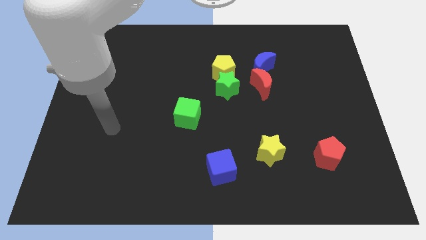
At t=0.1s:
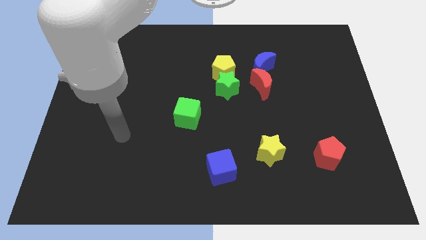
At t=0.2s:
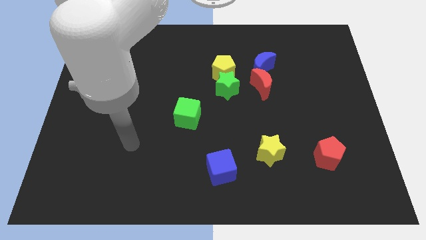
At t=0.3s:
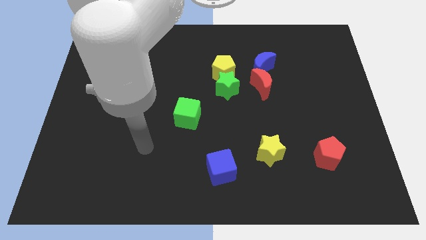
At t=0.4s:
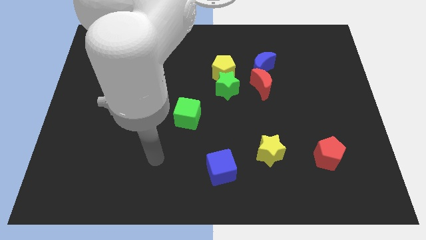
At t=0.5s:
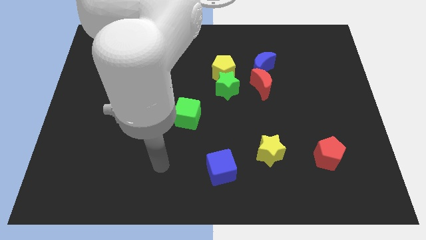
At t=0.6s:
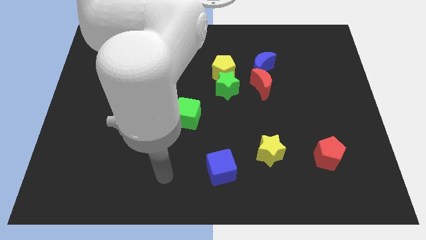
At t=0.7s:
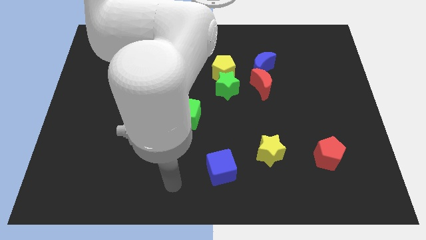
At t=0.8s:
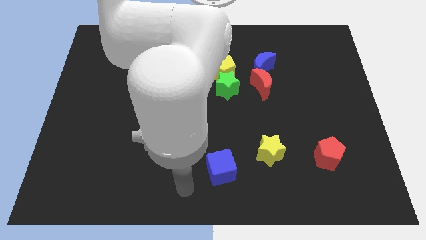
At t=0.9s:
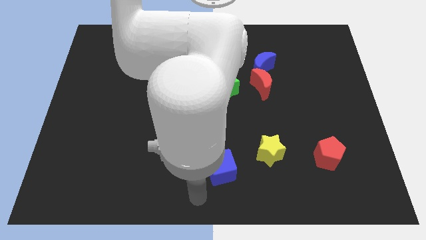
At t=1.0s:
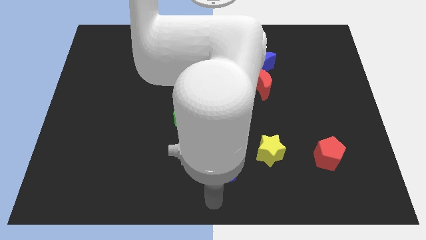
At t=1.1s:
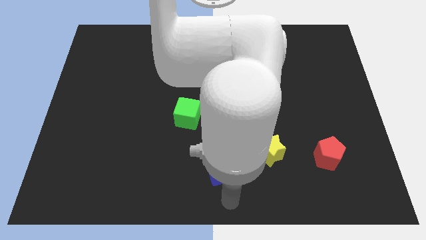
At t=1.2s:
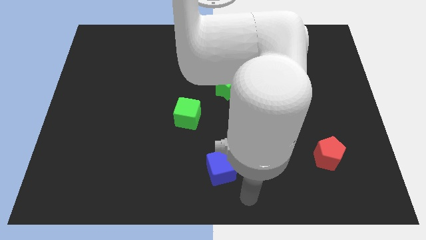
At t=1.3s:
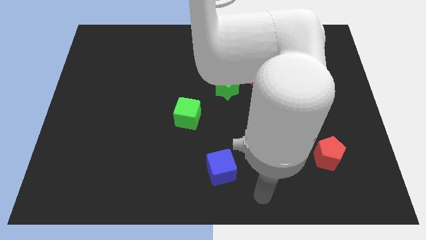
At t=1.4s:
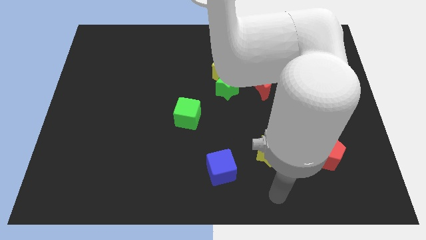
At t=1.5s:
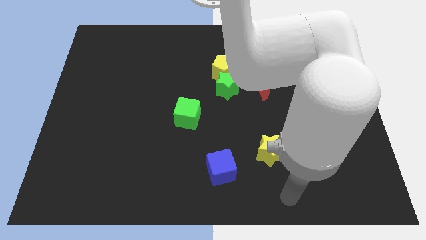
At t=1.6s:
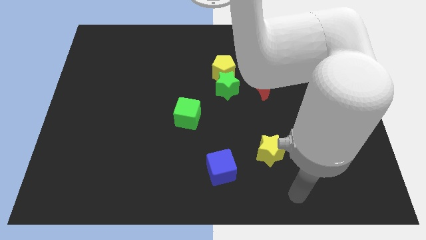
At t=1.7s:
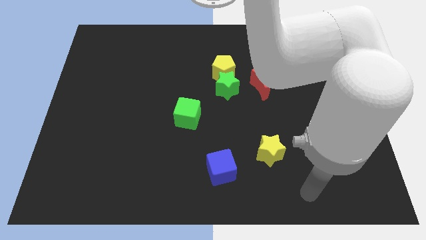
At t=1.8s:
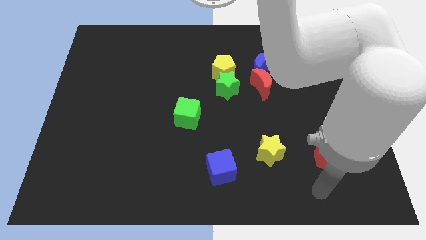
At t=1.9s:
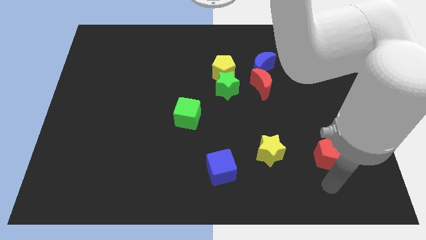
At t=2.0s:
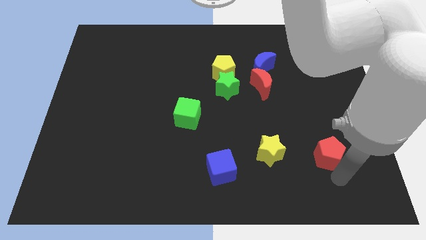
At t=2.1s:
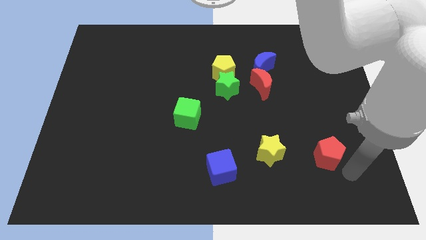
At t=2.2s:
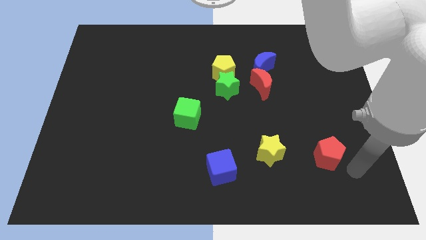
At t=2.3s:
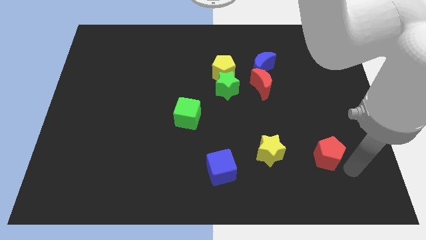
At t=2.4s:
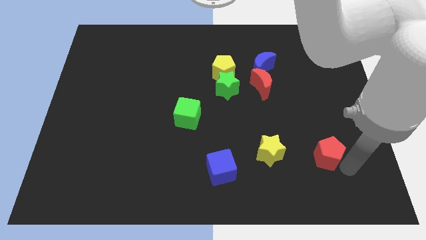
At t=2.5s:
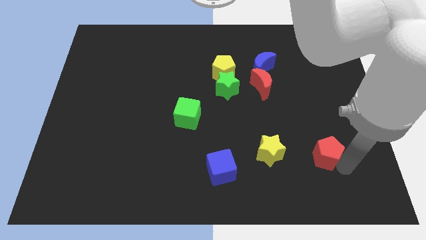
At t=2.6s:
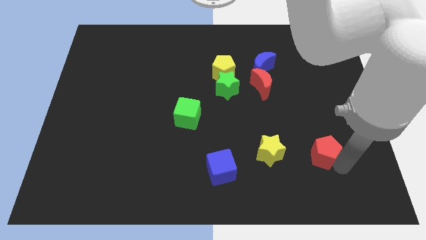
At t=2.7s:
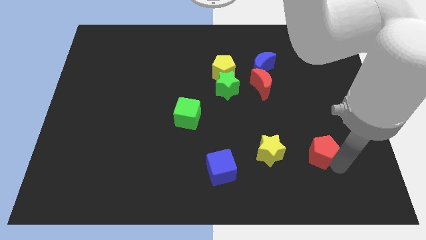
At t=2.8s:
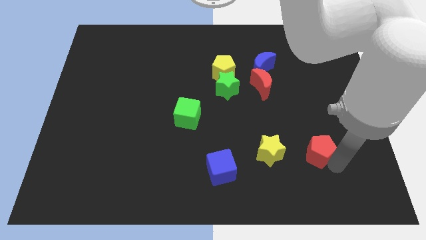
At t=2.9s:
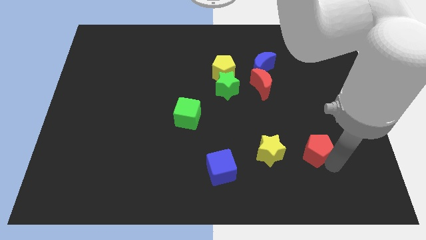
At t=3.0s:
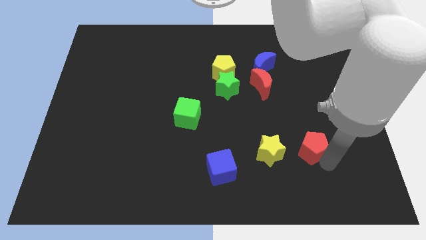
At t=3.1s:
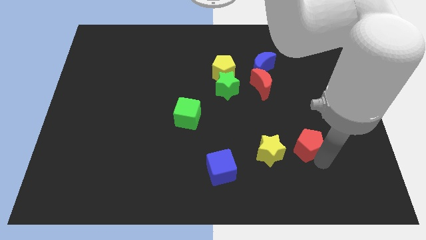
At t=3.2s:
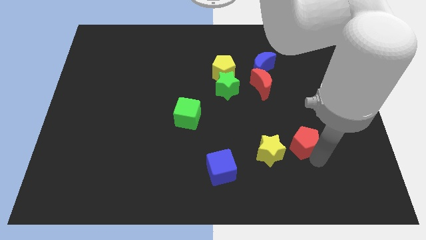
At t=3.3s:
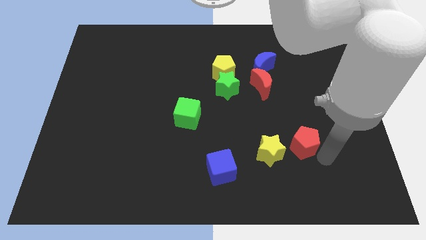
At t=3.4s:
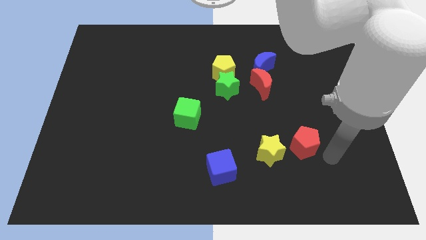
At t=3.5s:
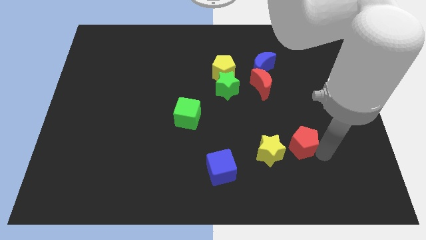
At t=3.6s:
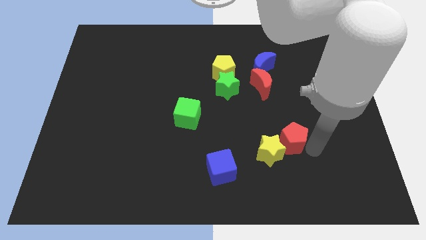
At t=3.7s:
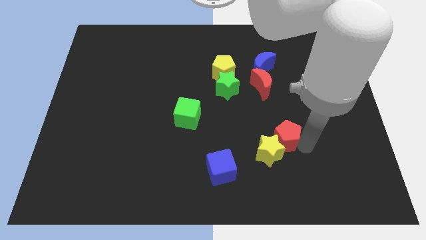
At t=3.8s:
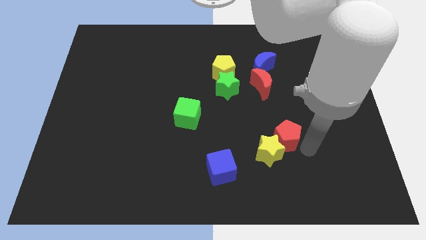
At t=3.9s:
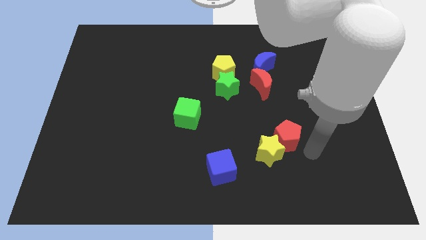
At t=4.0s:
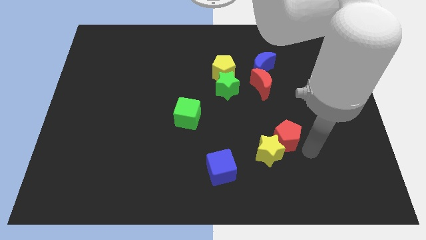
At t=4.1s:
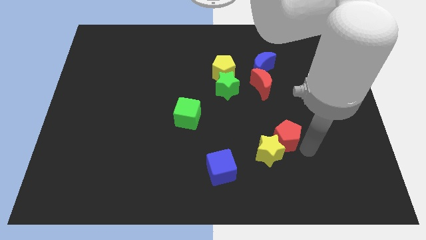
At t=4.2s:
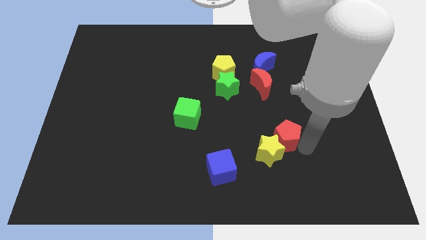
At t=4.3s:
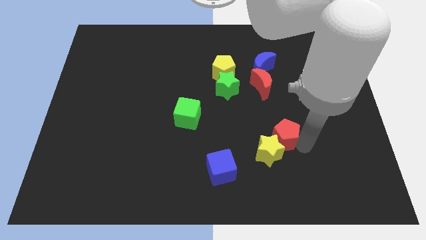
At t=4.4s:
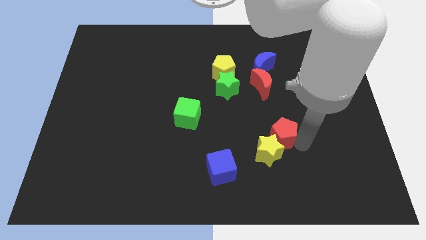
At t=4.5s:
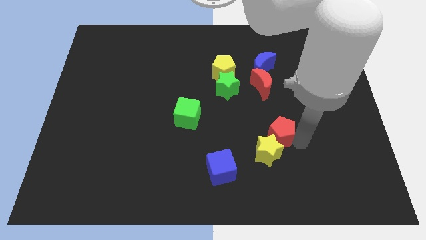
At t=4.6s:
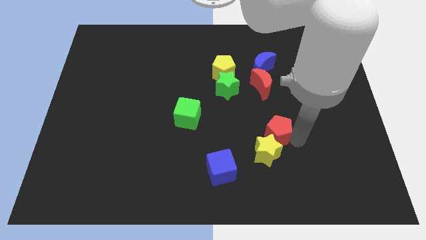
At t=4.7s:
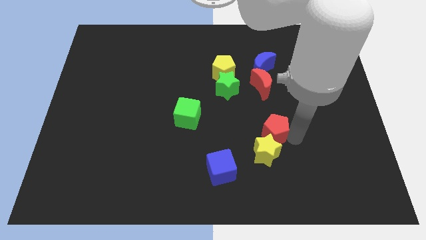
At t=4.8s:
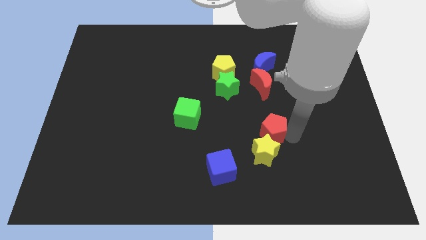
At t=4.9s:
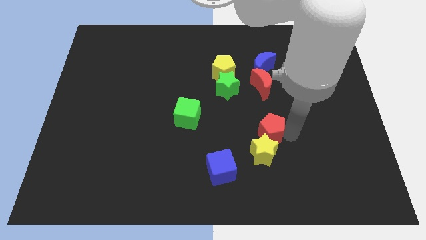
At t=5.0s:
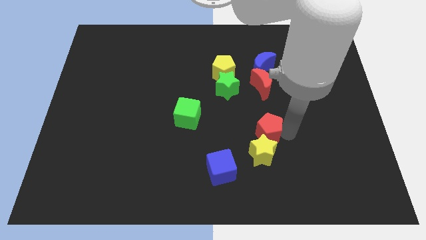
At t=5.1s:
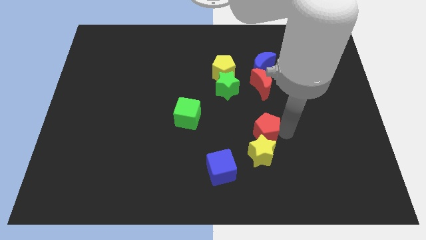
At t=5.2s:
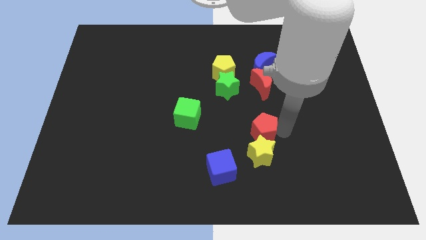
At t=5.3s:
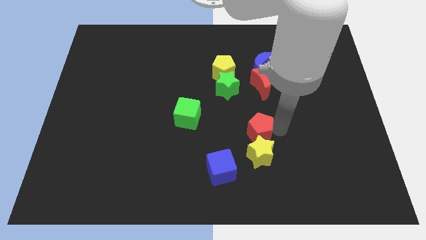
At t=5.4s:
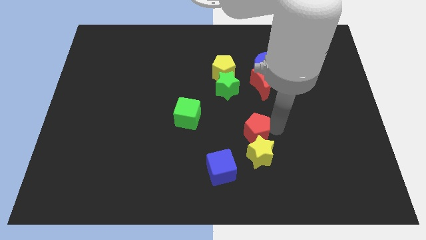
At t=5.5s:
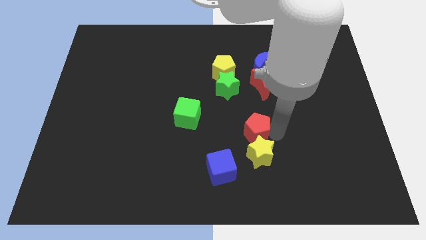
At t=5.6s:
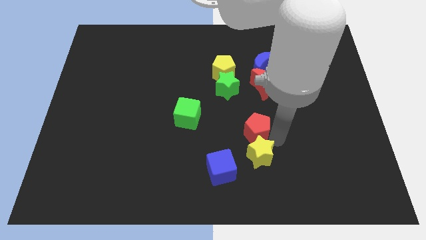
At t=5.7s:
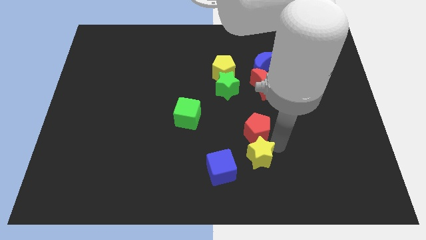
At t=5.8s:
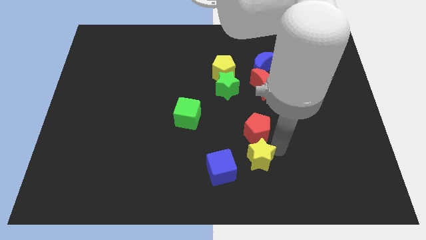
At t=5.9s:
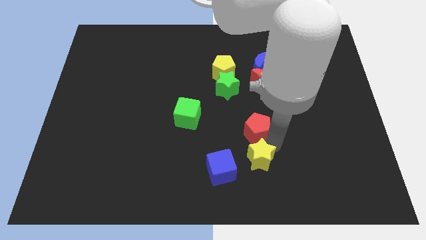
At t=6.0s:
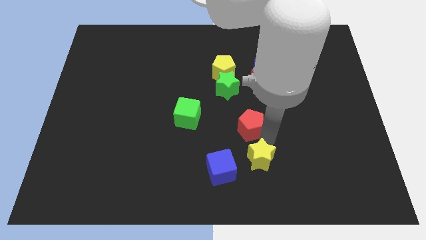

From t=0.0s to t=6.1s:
move the red pentagon to the center of the board
